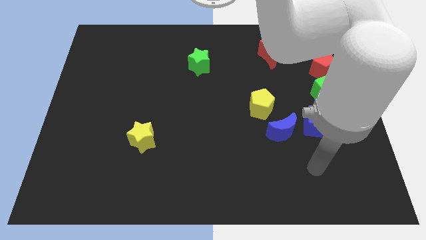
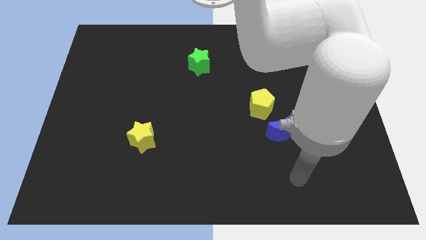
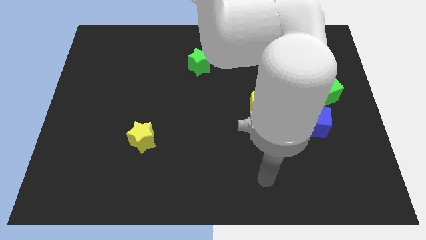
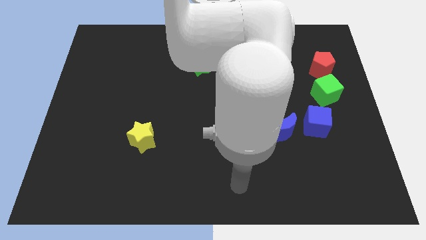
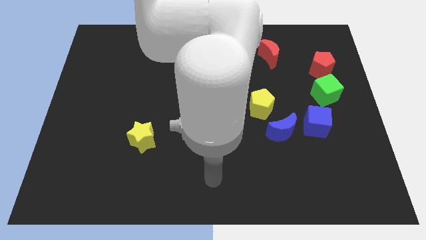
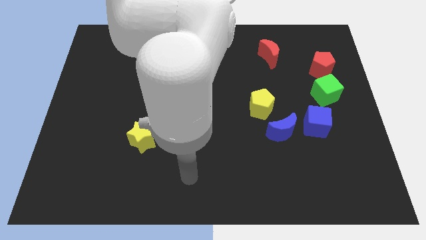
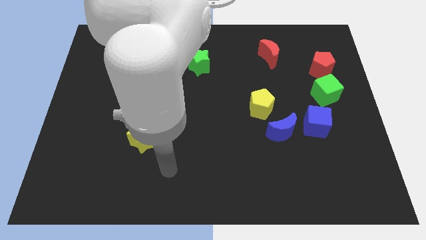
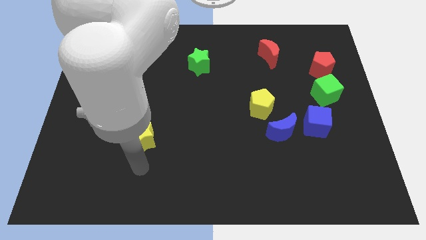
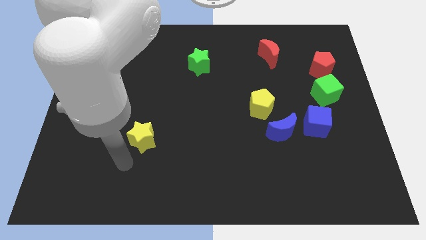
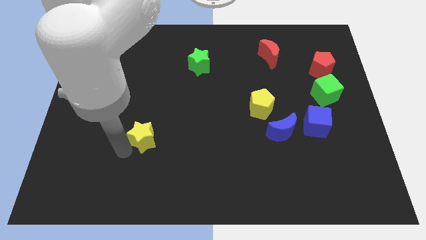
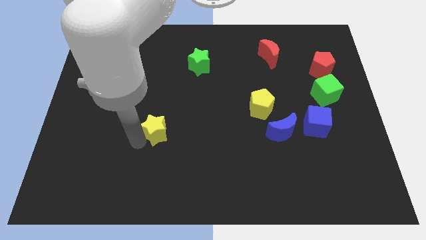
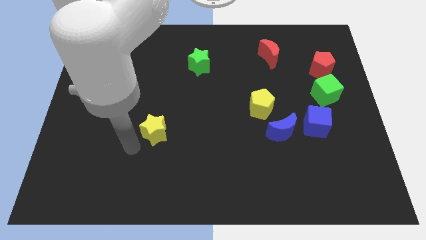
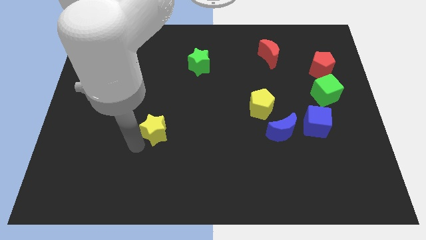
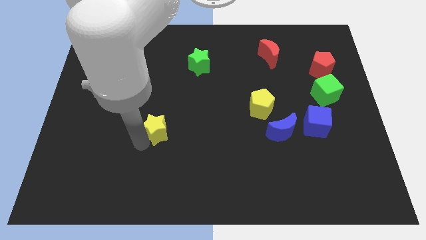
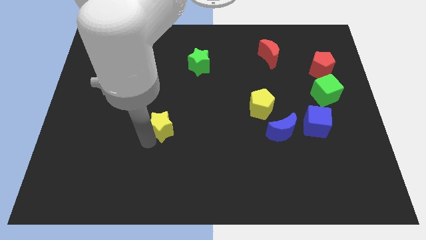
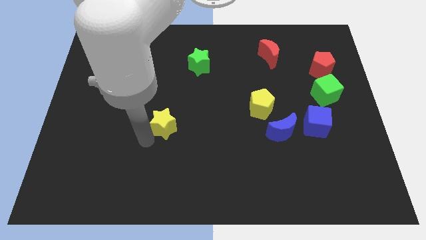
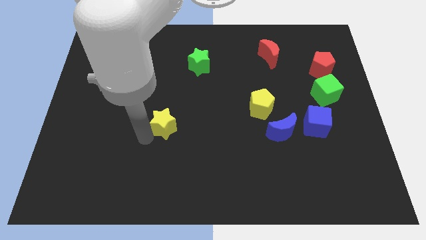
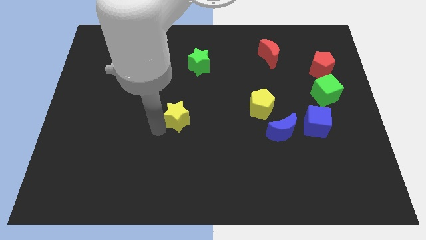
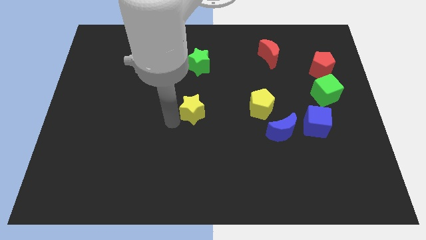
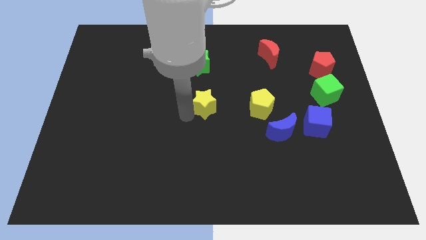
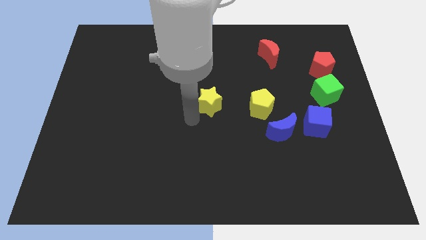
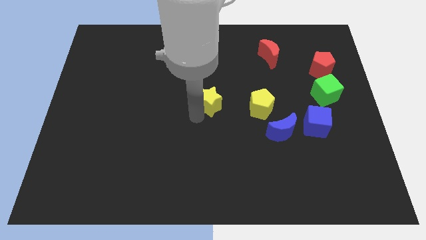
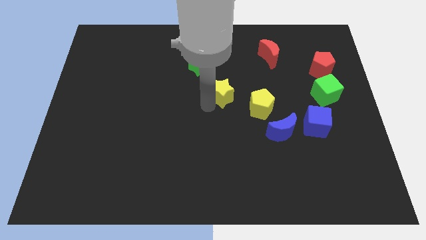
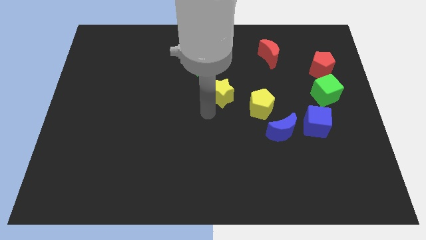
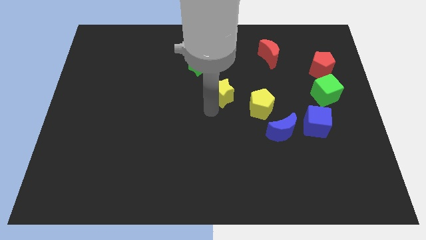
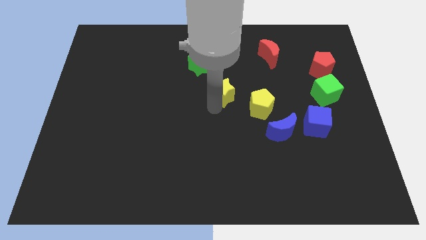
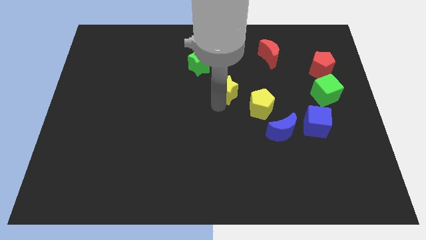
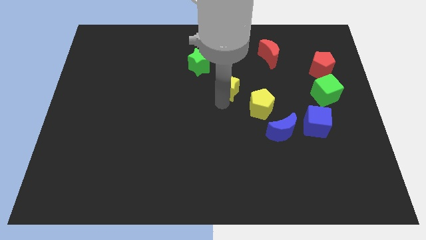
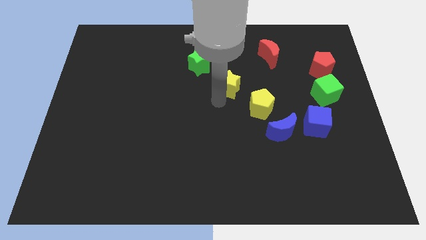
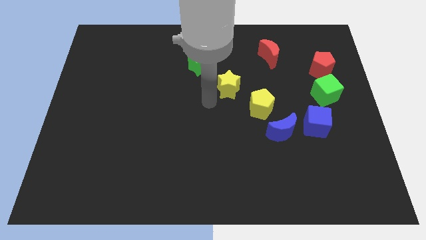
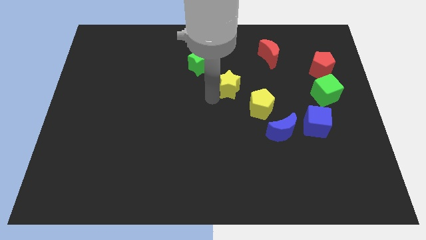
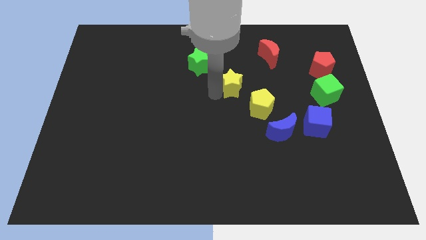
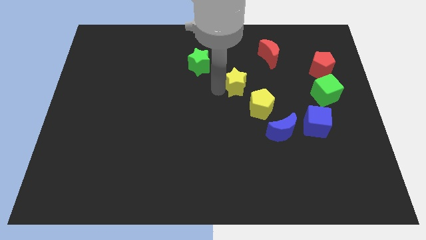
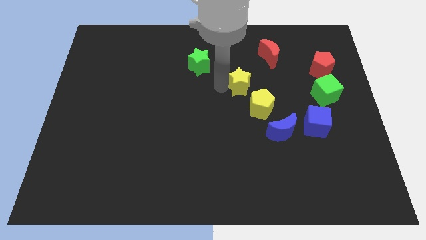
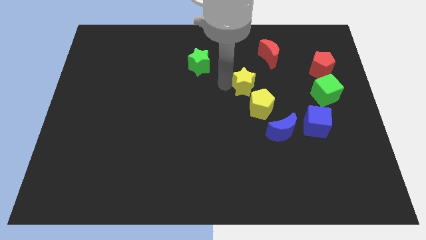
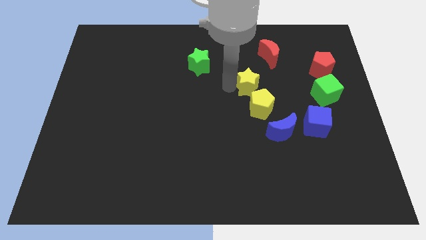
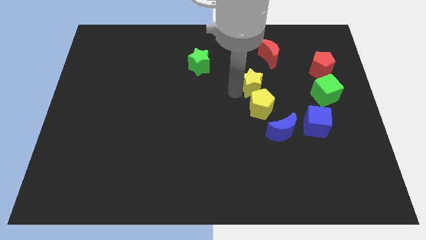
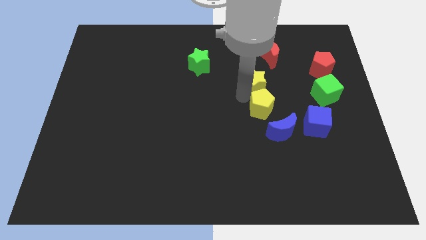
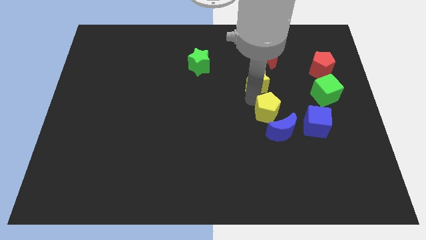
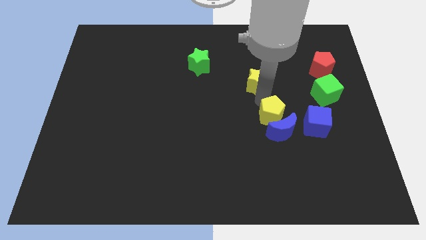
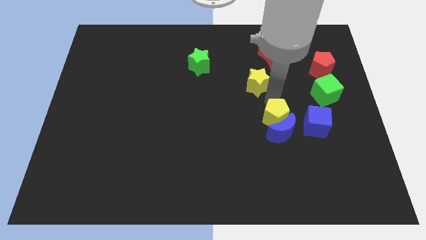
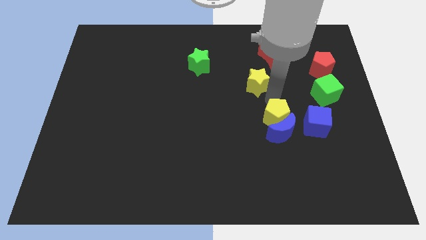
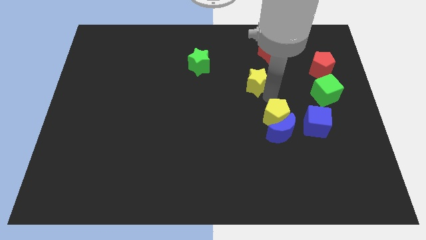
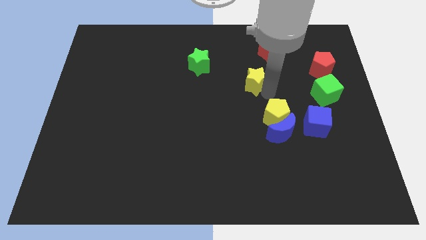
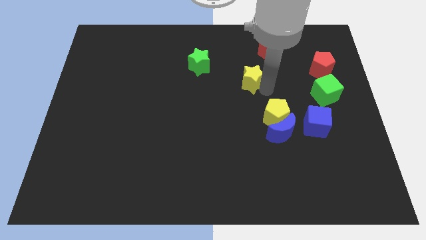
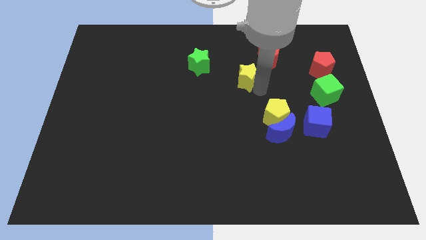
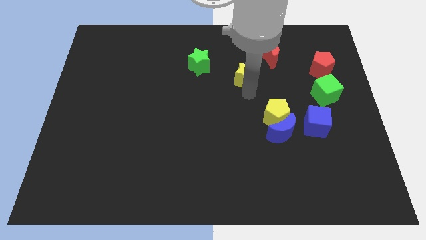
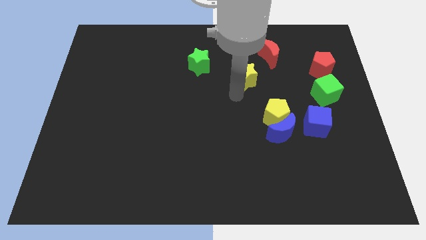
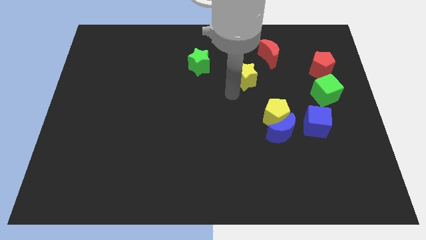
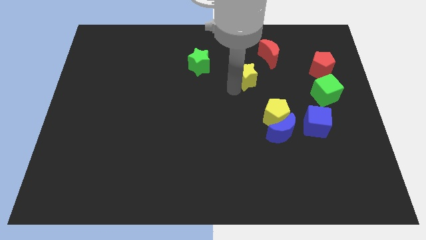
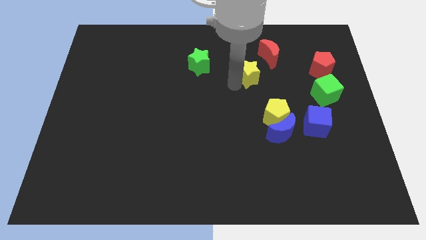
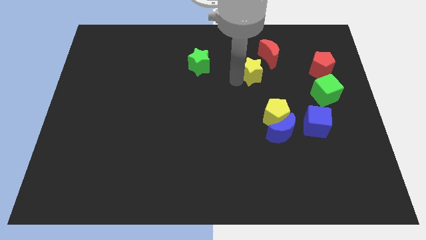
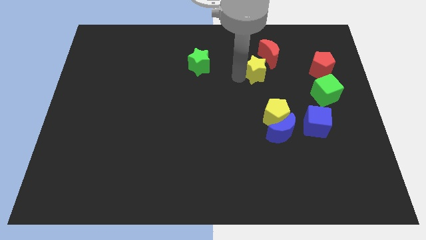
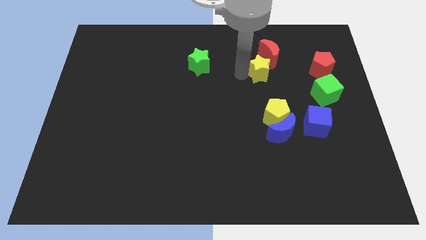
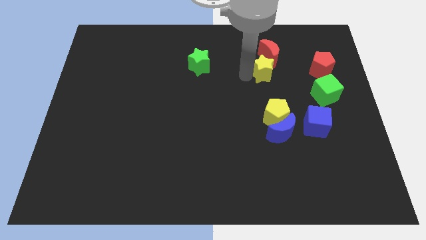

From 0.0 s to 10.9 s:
put the yellow star close to the red moon

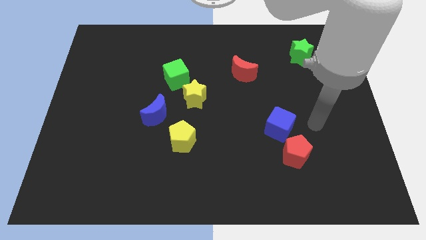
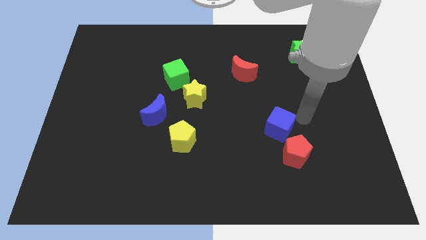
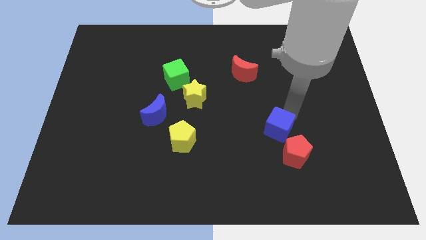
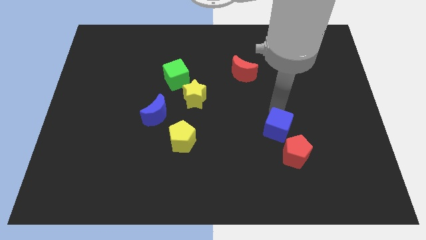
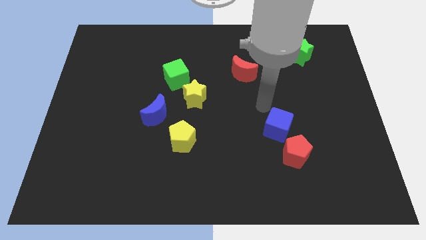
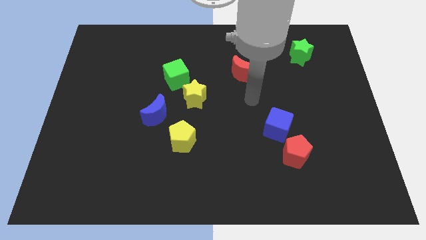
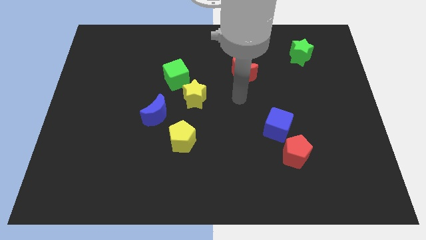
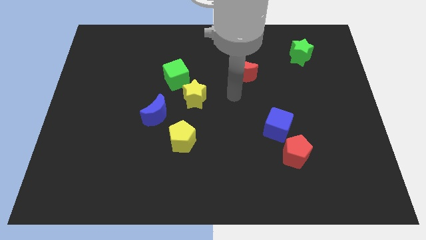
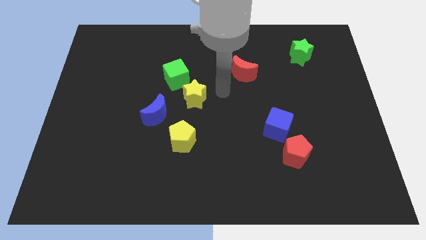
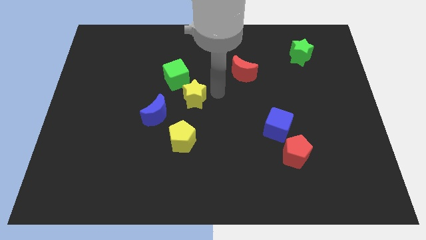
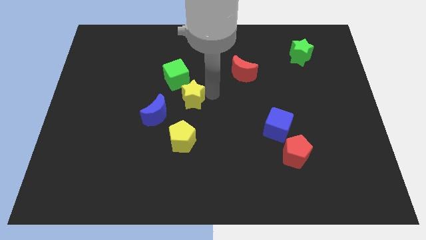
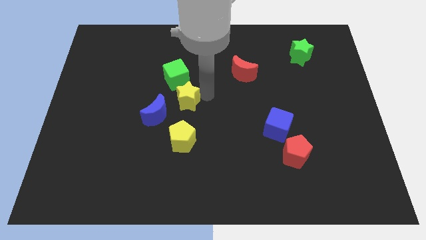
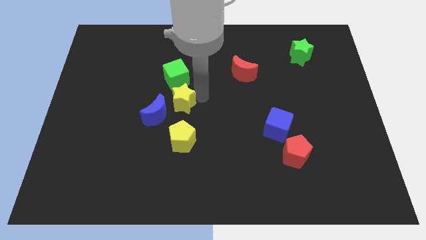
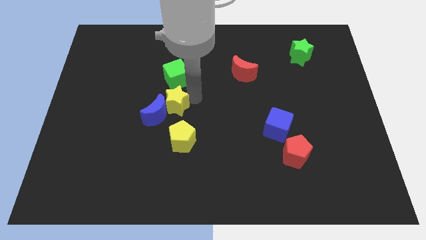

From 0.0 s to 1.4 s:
move the yellow star to the blue moon
